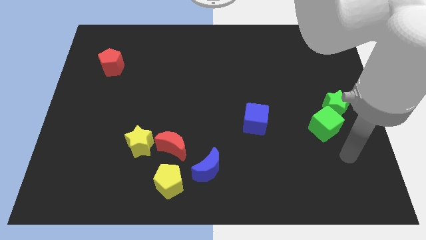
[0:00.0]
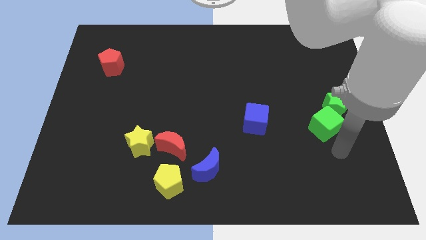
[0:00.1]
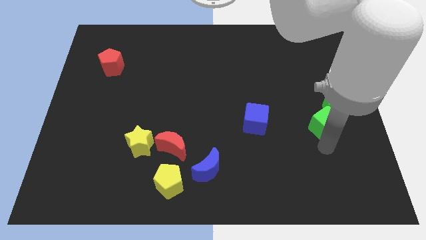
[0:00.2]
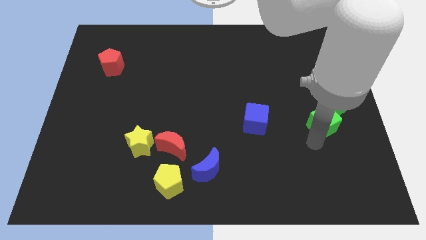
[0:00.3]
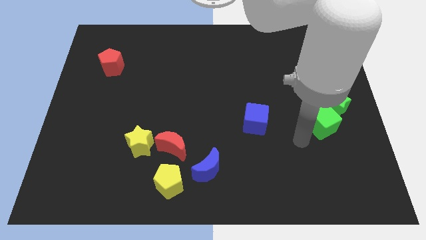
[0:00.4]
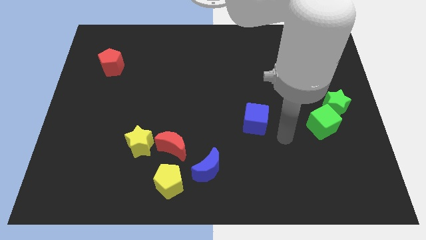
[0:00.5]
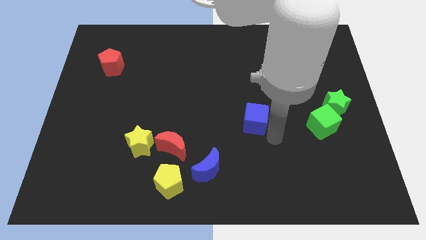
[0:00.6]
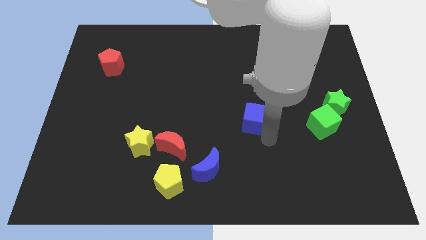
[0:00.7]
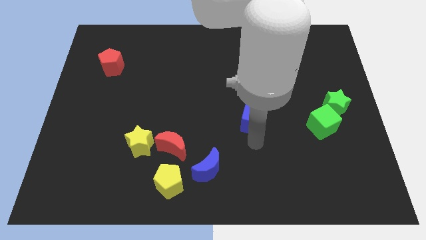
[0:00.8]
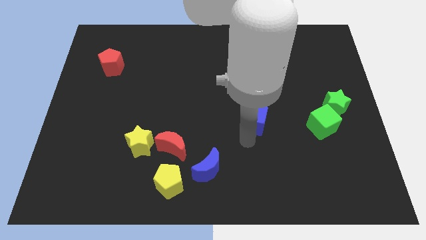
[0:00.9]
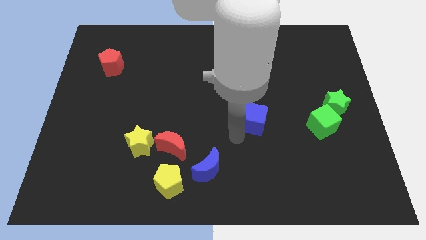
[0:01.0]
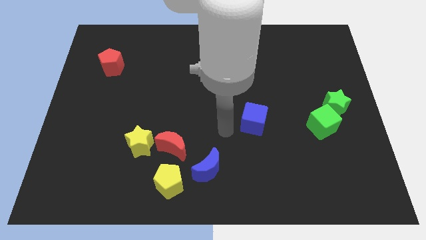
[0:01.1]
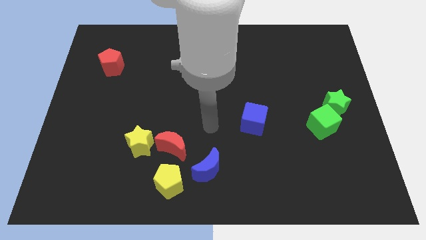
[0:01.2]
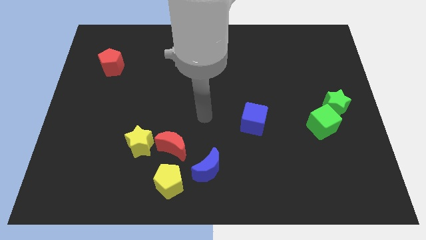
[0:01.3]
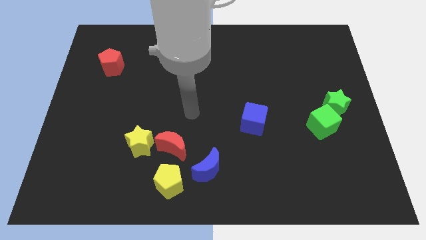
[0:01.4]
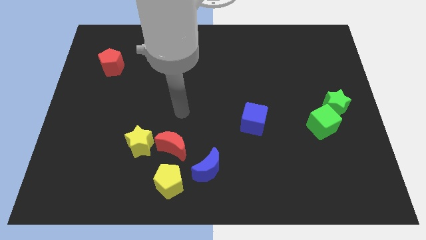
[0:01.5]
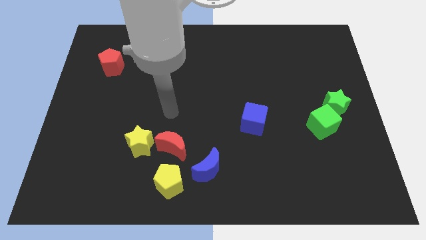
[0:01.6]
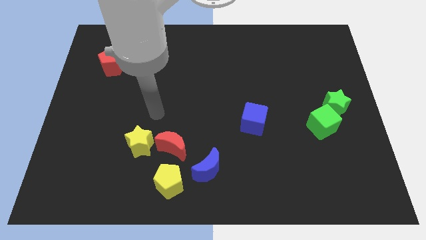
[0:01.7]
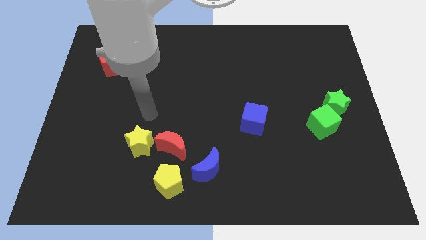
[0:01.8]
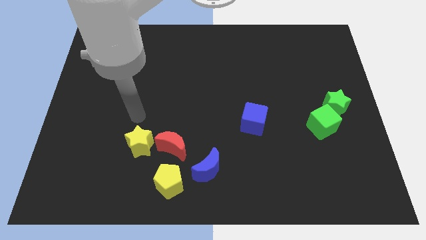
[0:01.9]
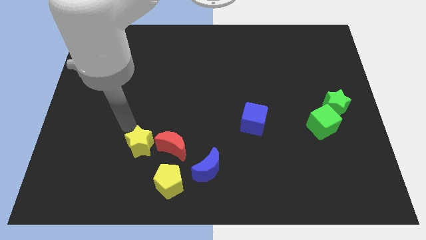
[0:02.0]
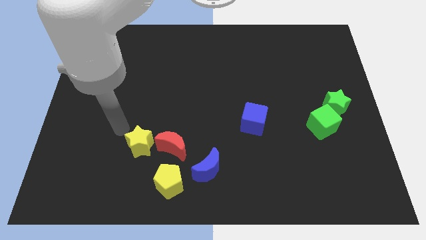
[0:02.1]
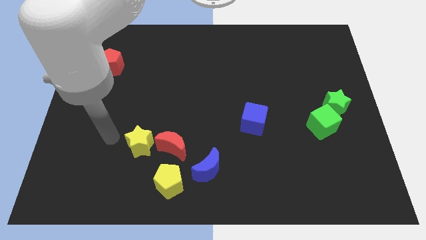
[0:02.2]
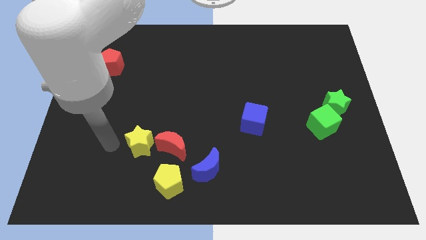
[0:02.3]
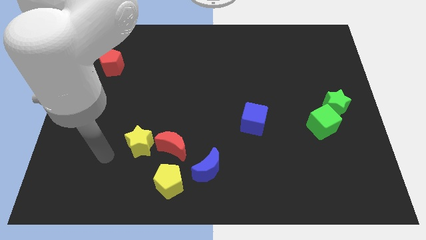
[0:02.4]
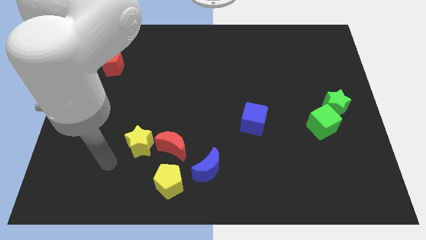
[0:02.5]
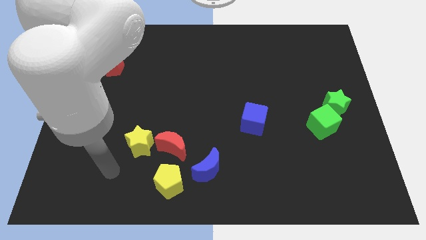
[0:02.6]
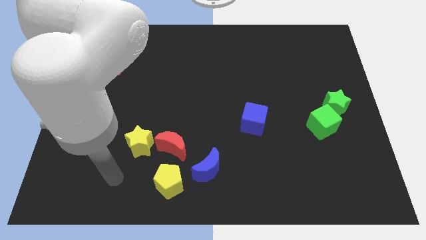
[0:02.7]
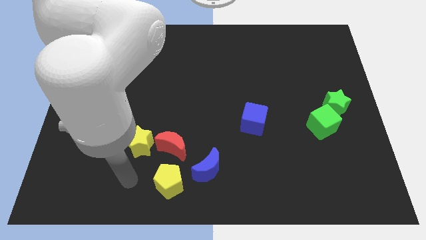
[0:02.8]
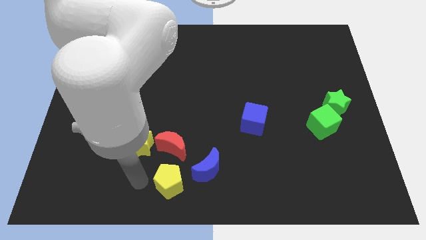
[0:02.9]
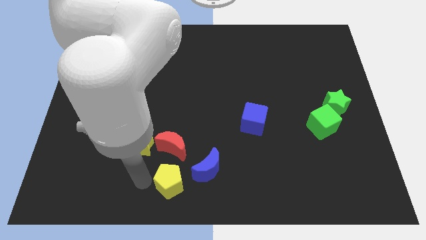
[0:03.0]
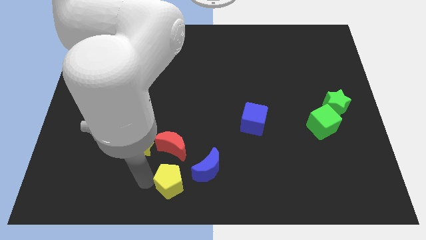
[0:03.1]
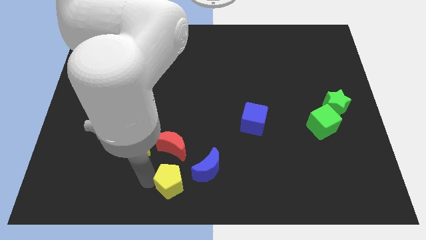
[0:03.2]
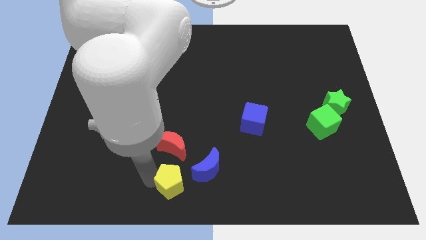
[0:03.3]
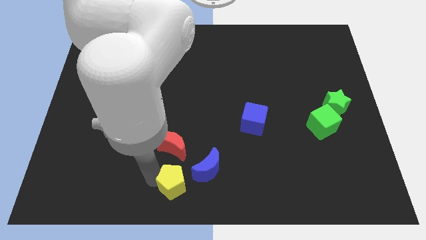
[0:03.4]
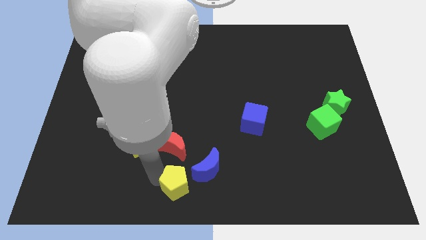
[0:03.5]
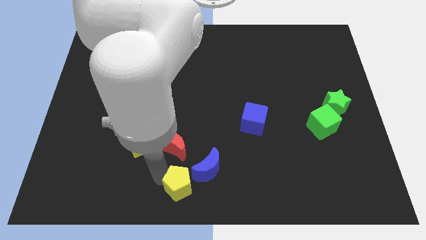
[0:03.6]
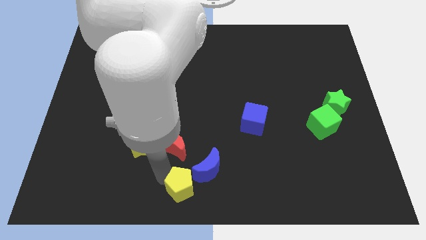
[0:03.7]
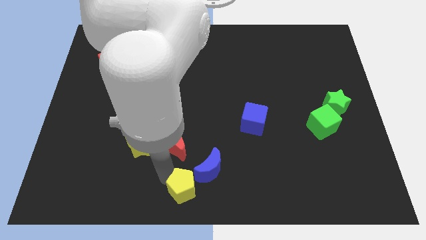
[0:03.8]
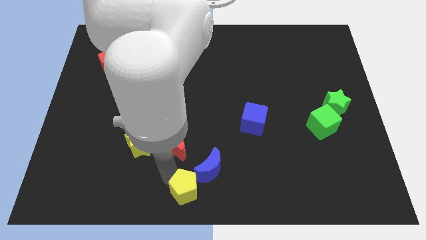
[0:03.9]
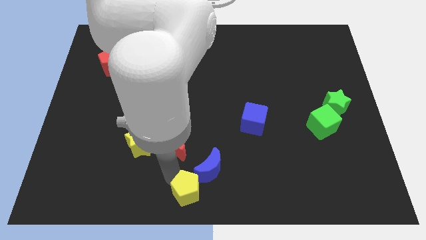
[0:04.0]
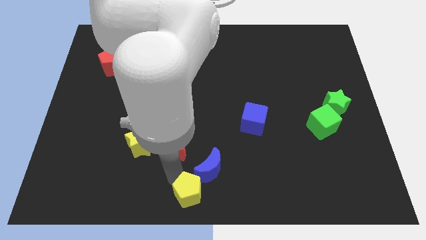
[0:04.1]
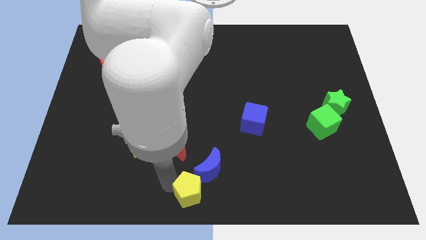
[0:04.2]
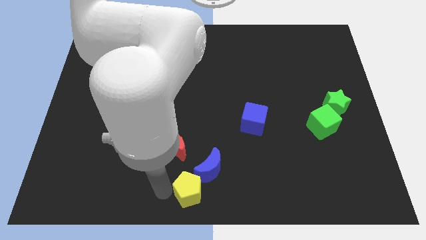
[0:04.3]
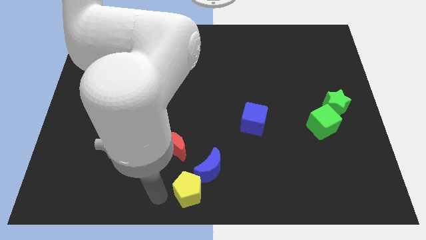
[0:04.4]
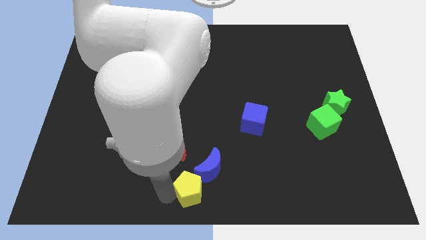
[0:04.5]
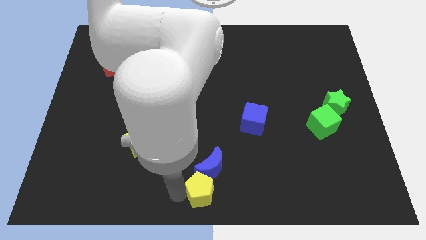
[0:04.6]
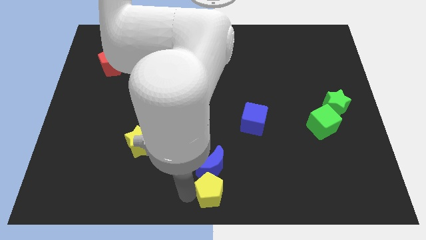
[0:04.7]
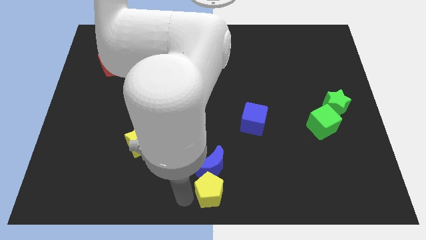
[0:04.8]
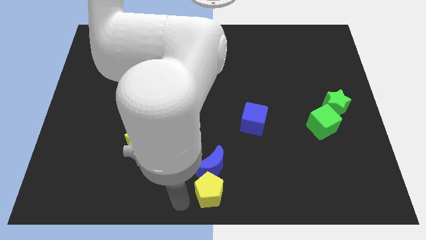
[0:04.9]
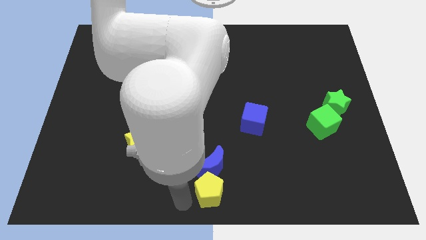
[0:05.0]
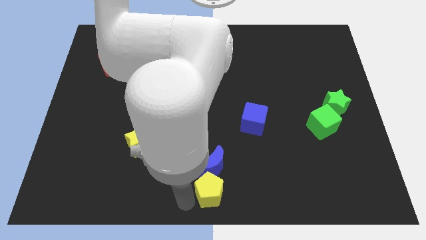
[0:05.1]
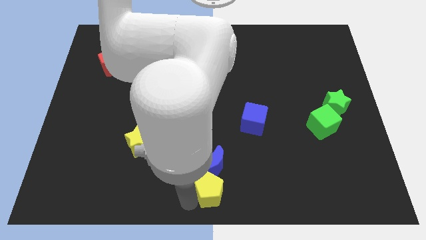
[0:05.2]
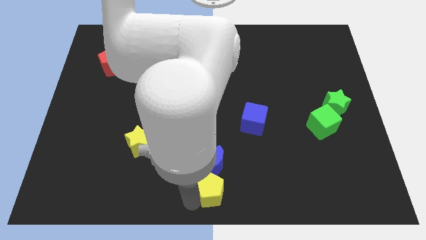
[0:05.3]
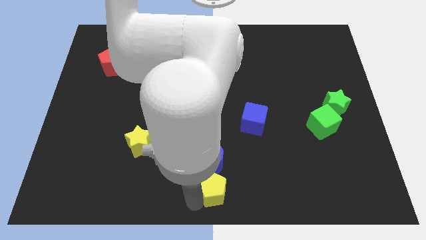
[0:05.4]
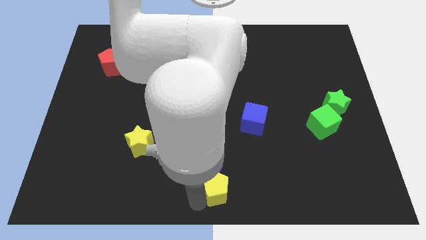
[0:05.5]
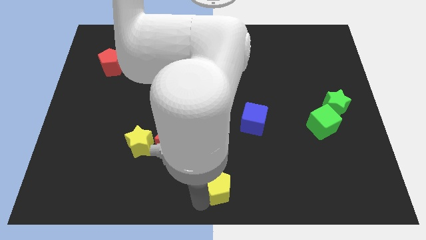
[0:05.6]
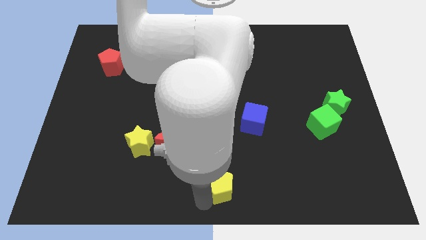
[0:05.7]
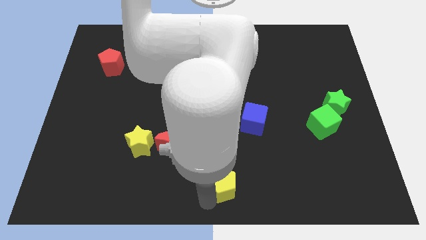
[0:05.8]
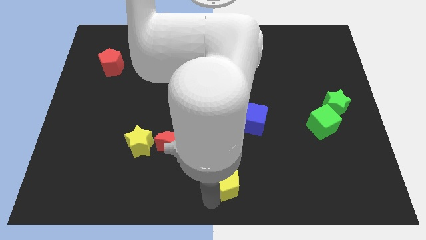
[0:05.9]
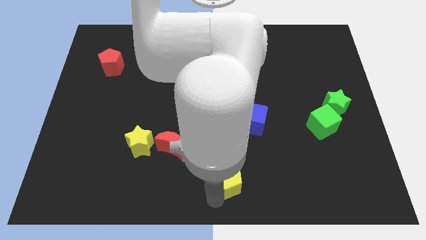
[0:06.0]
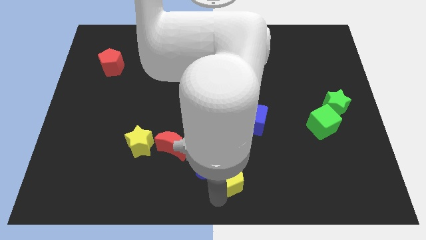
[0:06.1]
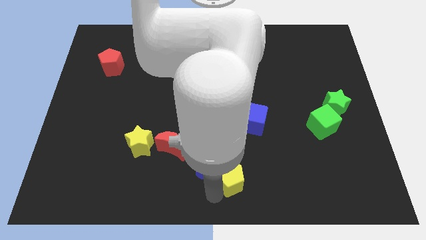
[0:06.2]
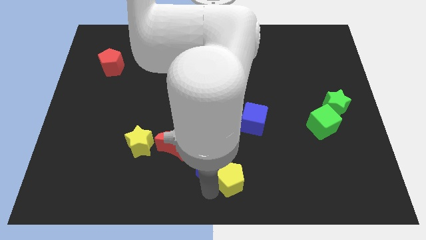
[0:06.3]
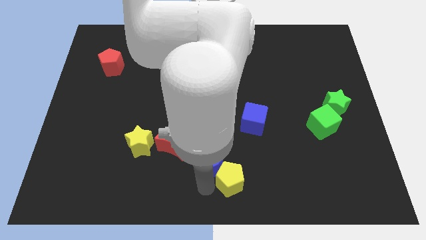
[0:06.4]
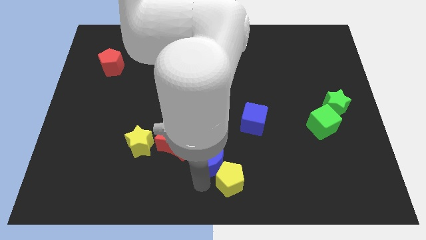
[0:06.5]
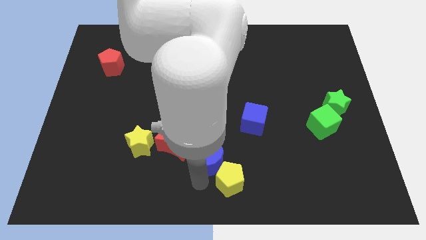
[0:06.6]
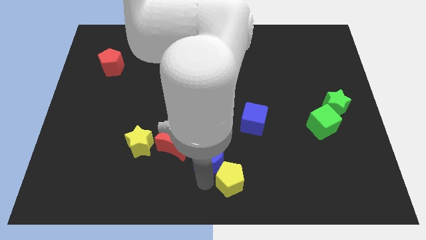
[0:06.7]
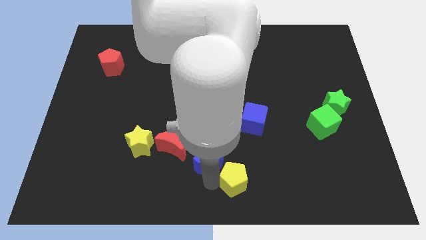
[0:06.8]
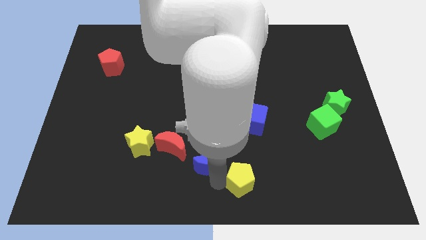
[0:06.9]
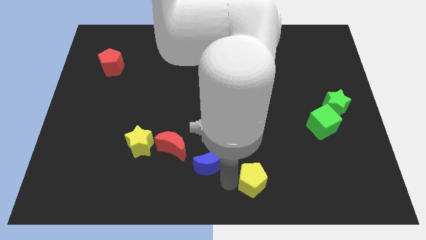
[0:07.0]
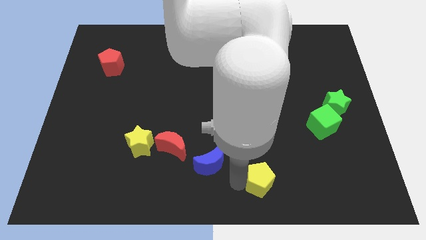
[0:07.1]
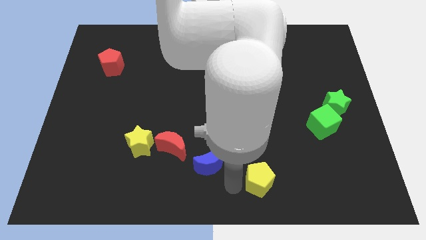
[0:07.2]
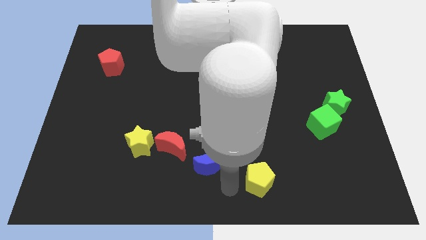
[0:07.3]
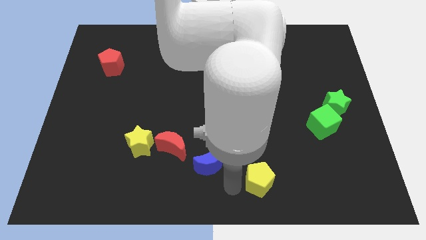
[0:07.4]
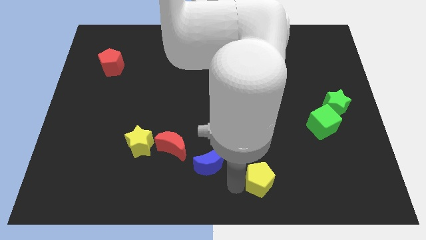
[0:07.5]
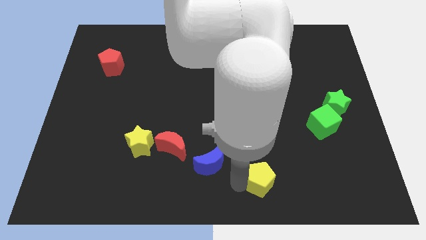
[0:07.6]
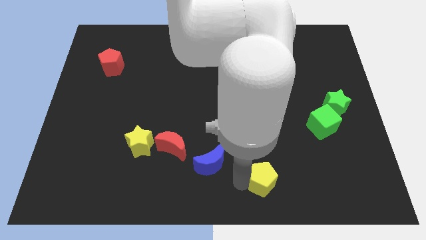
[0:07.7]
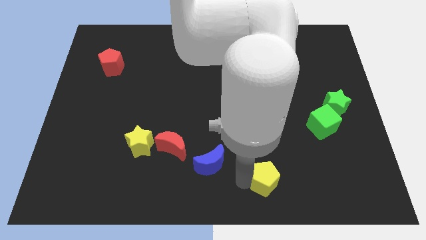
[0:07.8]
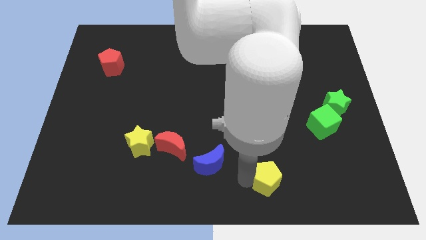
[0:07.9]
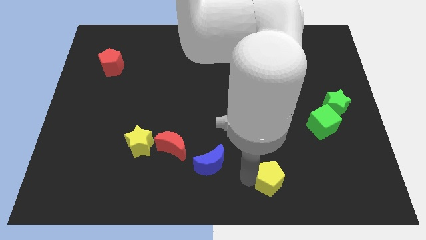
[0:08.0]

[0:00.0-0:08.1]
move the yellow pentagon right

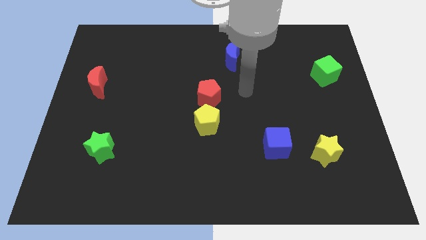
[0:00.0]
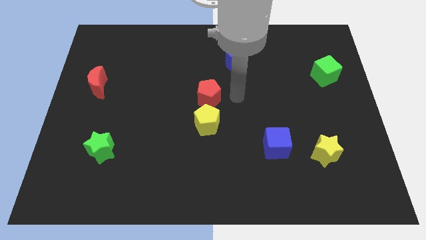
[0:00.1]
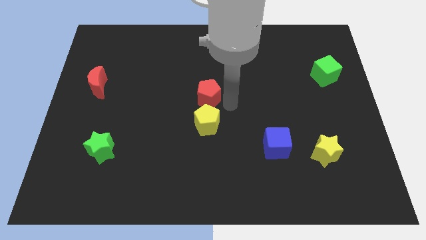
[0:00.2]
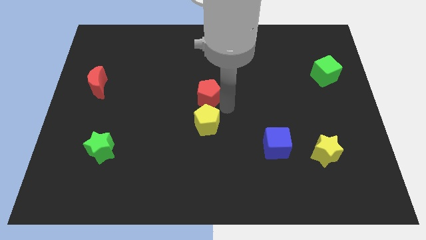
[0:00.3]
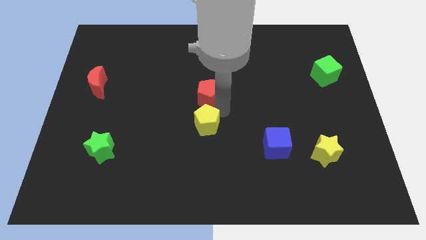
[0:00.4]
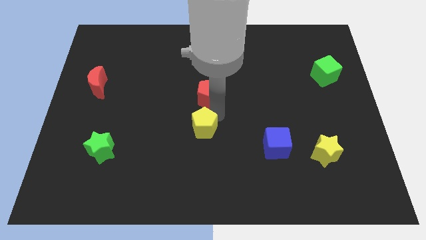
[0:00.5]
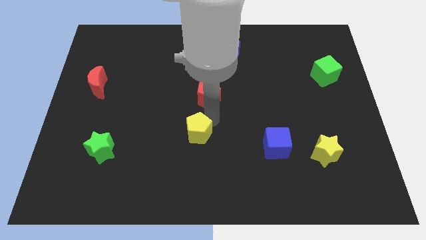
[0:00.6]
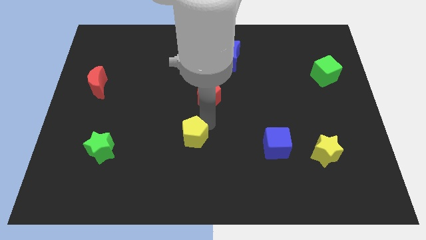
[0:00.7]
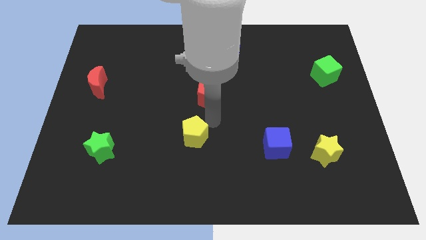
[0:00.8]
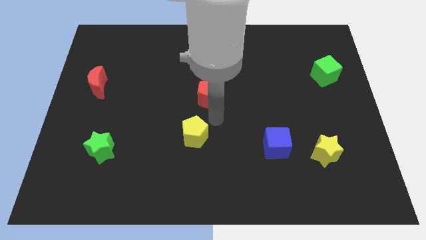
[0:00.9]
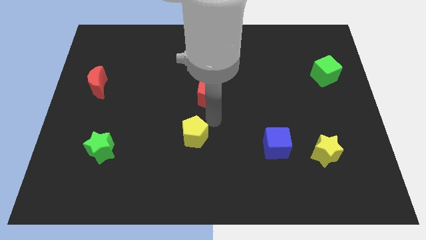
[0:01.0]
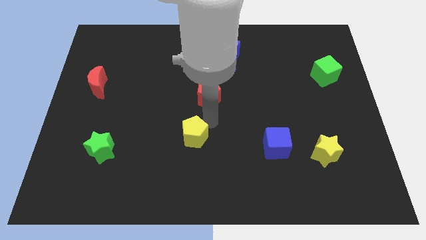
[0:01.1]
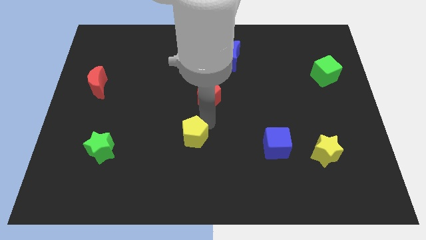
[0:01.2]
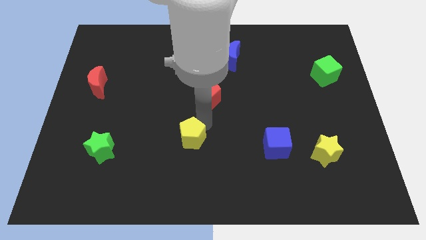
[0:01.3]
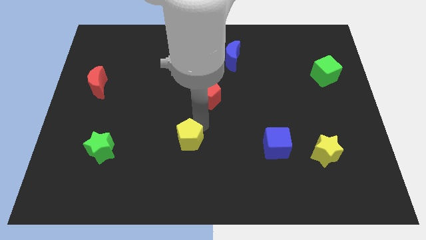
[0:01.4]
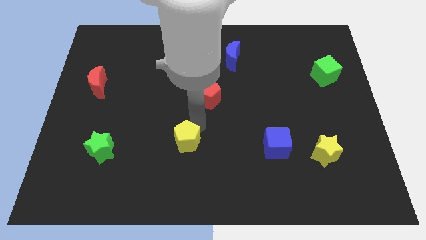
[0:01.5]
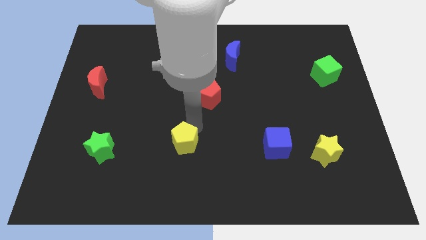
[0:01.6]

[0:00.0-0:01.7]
slide the yellow pentagon down and then to the left slightly
